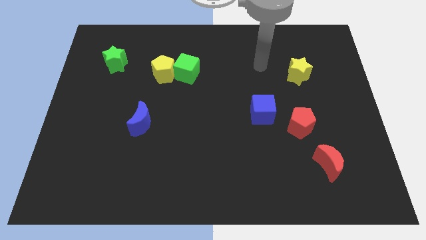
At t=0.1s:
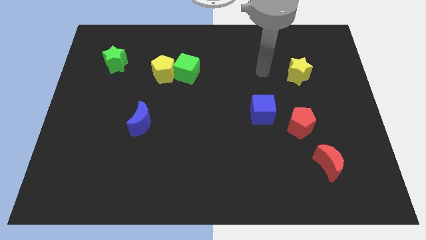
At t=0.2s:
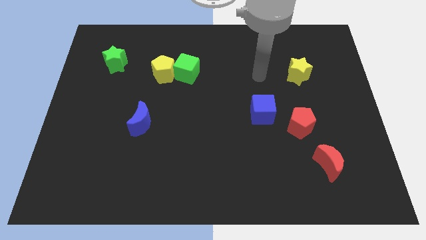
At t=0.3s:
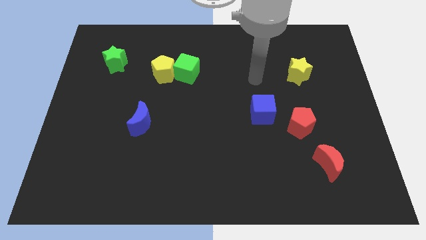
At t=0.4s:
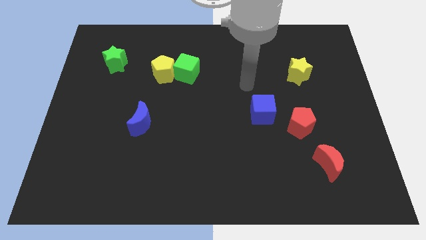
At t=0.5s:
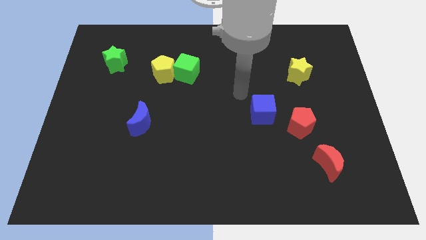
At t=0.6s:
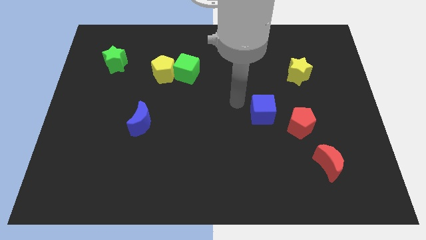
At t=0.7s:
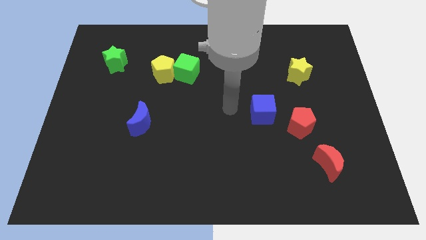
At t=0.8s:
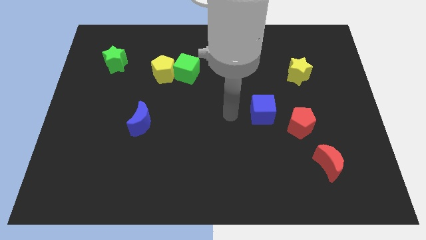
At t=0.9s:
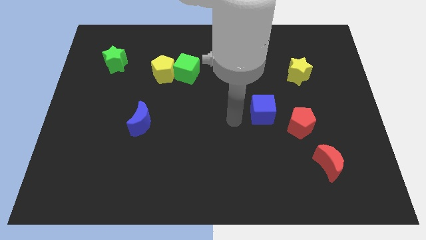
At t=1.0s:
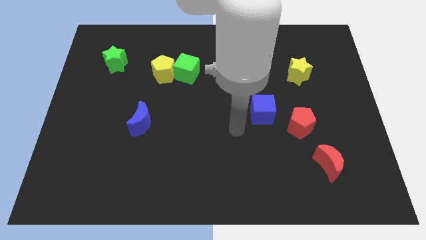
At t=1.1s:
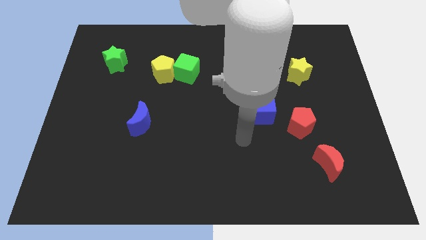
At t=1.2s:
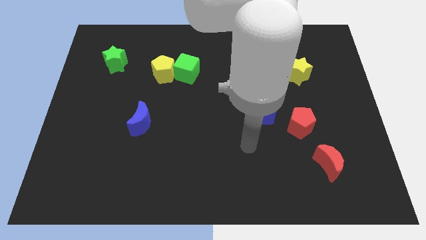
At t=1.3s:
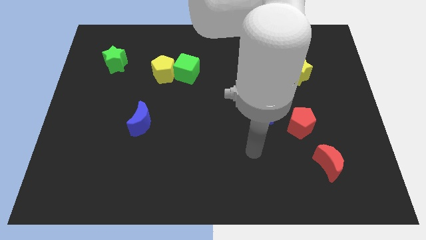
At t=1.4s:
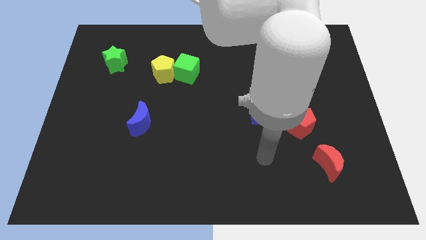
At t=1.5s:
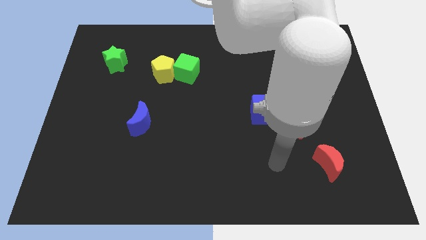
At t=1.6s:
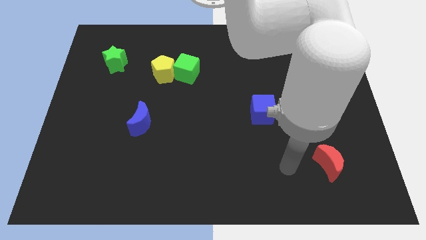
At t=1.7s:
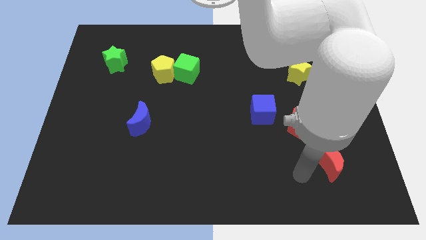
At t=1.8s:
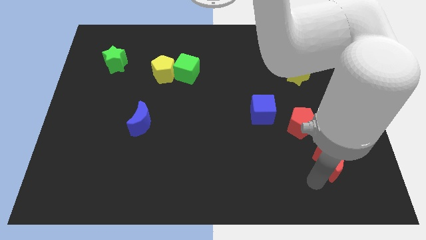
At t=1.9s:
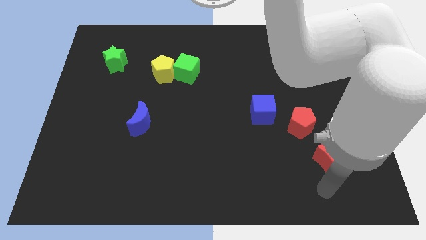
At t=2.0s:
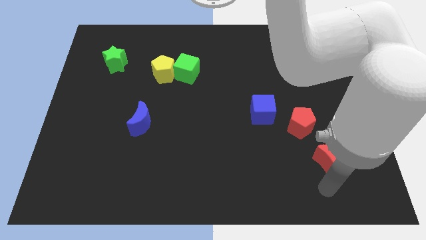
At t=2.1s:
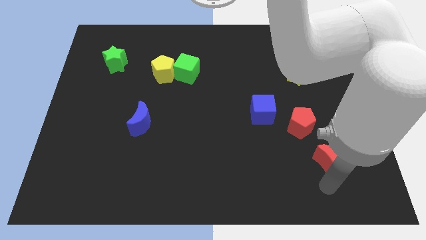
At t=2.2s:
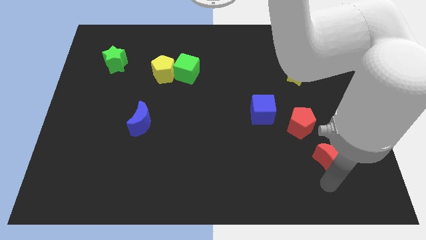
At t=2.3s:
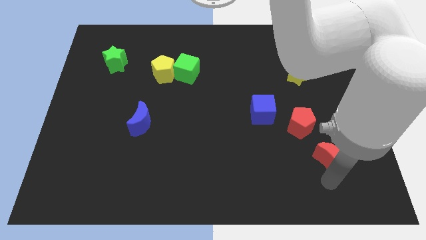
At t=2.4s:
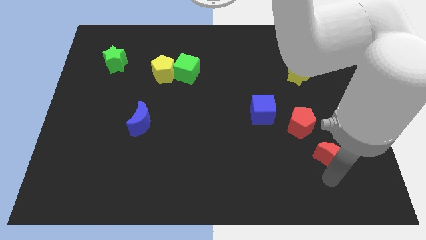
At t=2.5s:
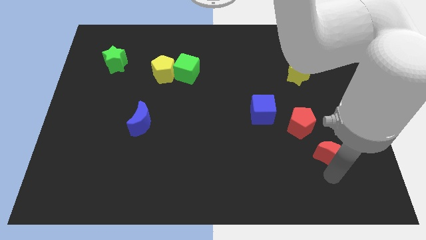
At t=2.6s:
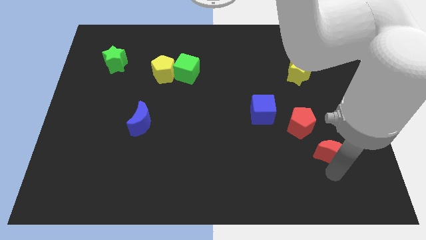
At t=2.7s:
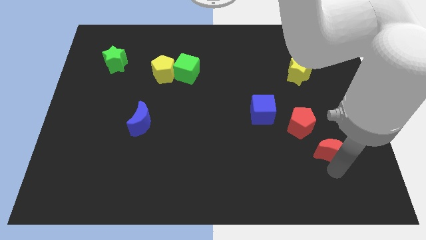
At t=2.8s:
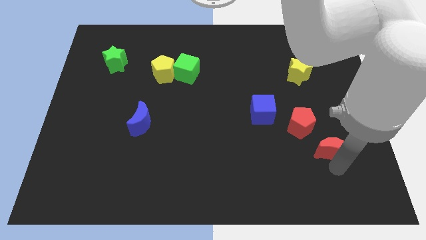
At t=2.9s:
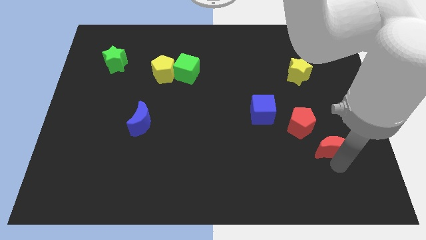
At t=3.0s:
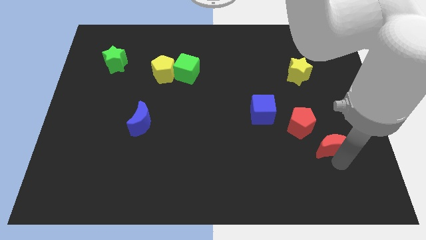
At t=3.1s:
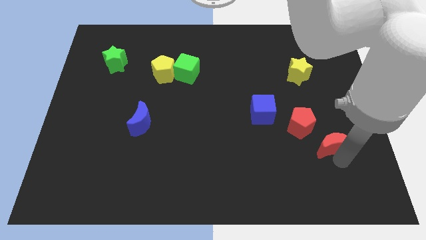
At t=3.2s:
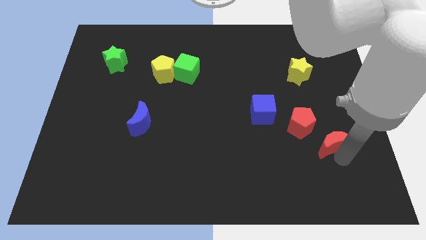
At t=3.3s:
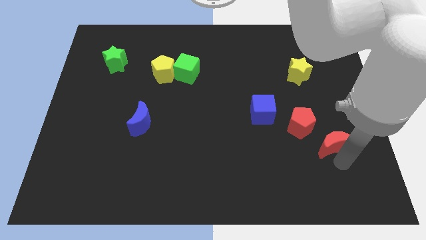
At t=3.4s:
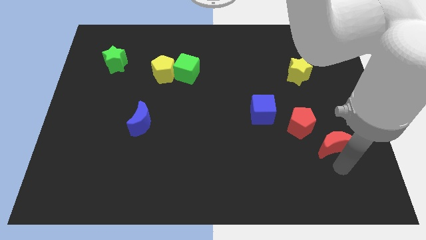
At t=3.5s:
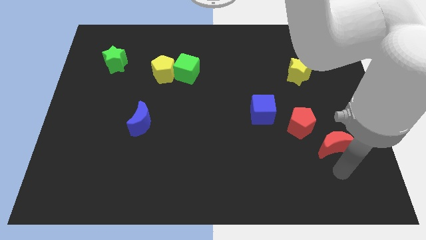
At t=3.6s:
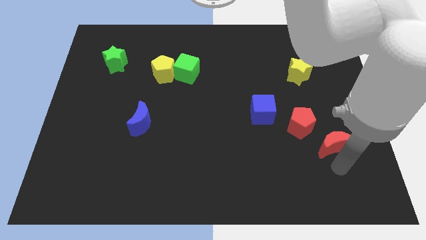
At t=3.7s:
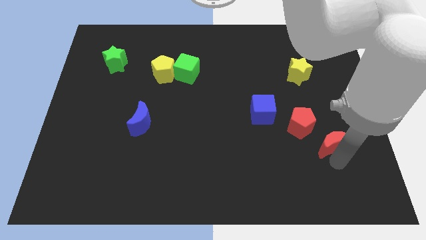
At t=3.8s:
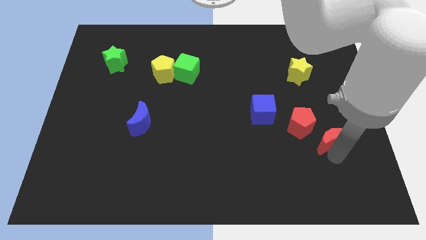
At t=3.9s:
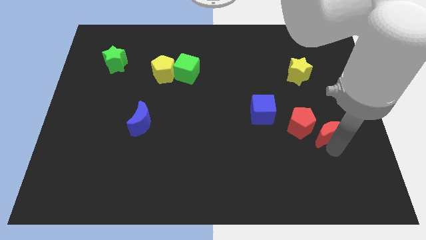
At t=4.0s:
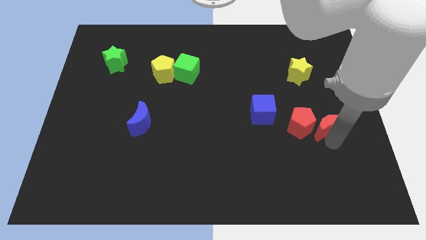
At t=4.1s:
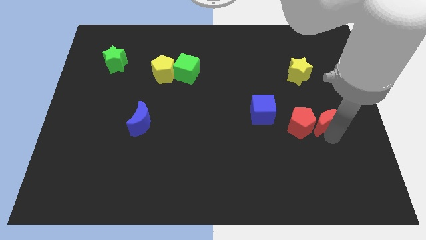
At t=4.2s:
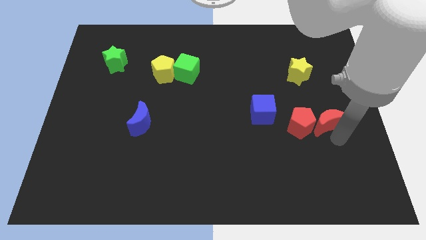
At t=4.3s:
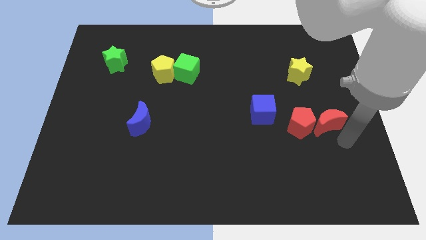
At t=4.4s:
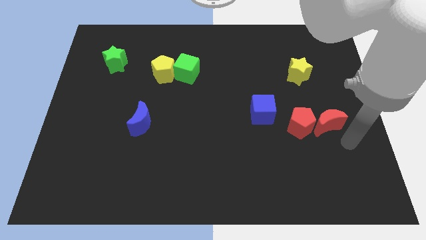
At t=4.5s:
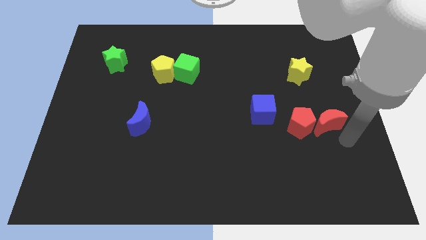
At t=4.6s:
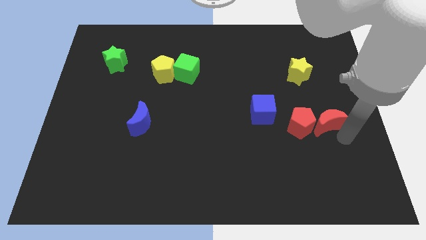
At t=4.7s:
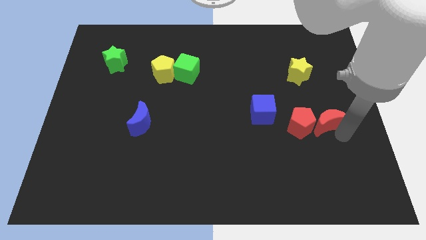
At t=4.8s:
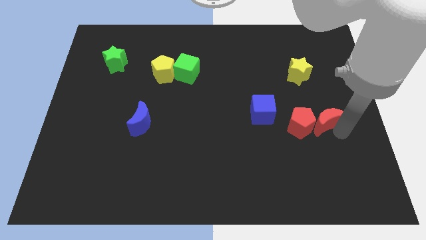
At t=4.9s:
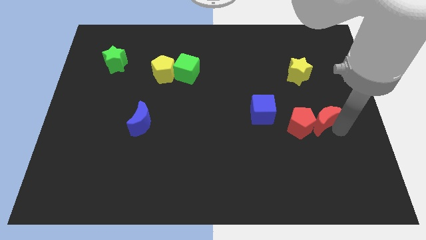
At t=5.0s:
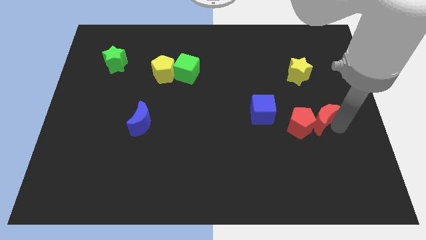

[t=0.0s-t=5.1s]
push the red moon to the bottom of the yellow star

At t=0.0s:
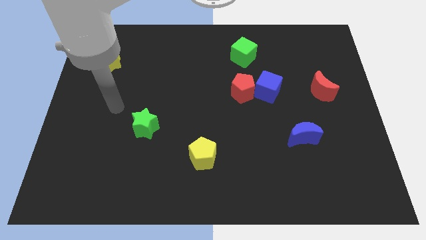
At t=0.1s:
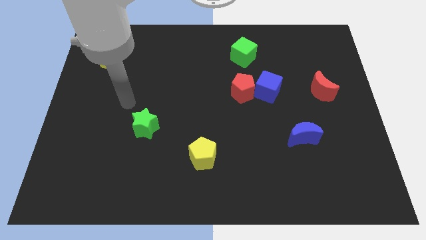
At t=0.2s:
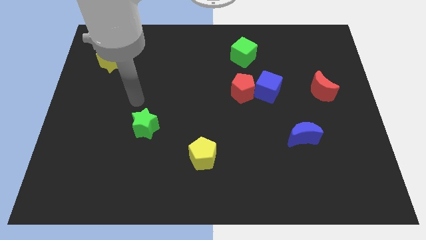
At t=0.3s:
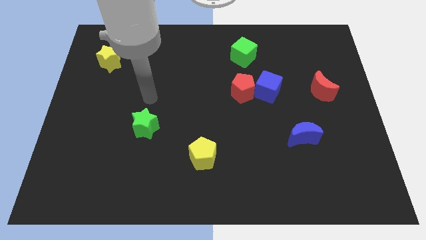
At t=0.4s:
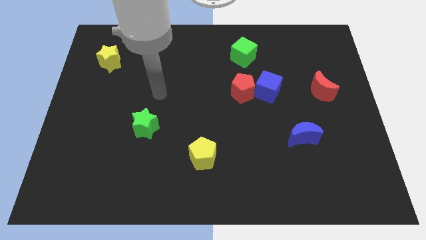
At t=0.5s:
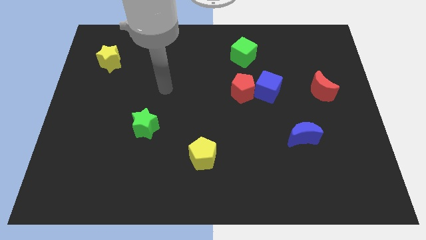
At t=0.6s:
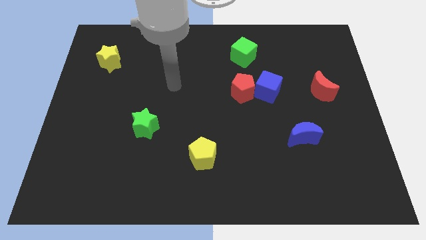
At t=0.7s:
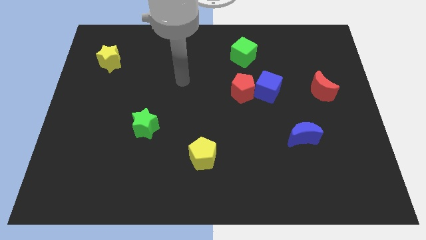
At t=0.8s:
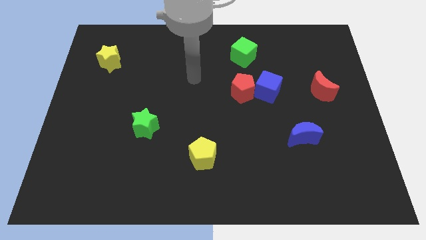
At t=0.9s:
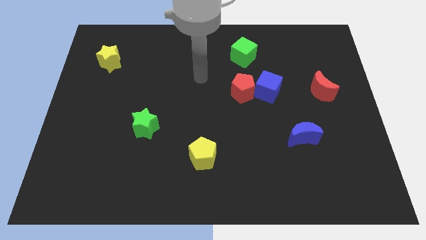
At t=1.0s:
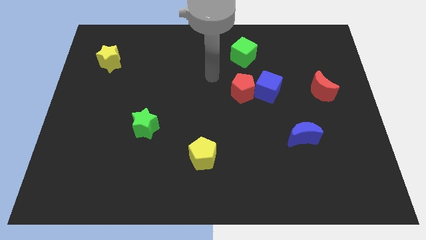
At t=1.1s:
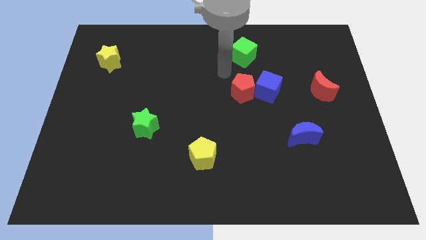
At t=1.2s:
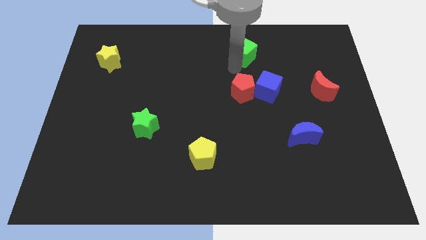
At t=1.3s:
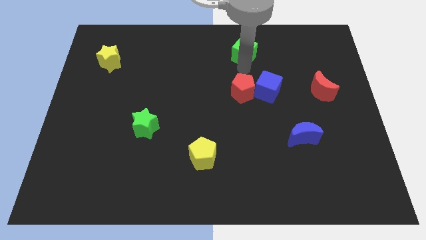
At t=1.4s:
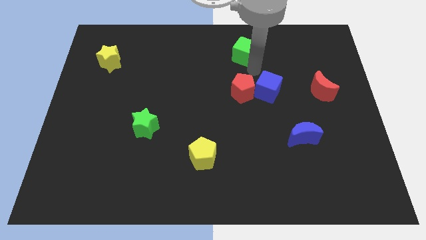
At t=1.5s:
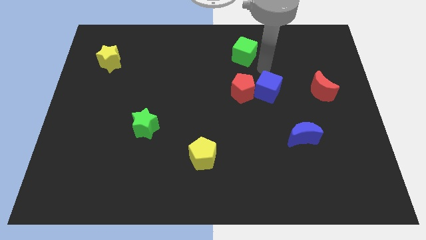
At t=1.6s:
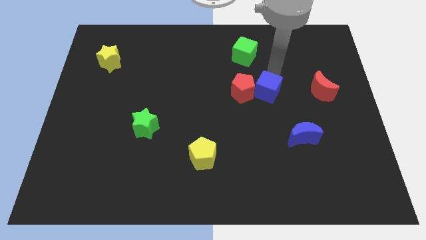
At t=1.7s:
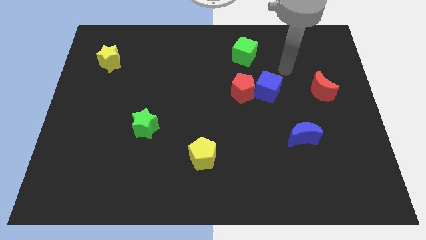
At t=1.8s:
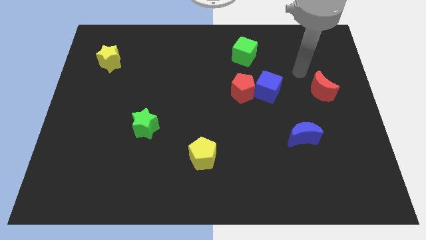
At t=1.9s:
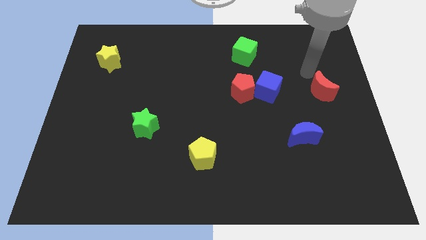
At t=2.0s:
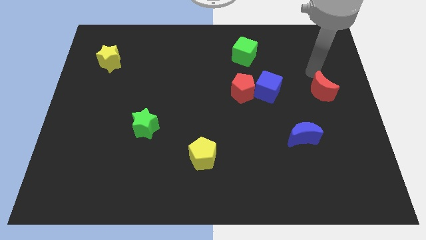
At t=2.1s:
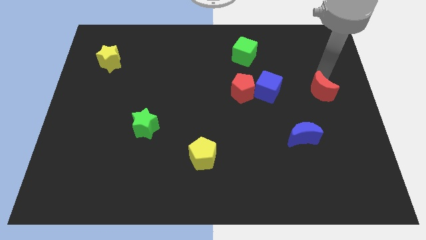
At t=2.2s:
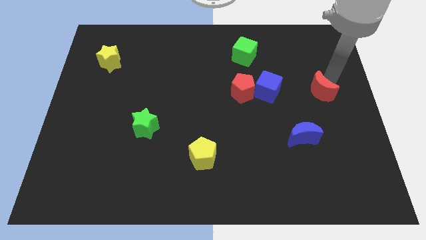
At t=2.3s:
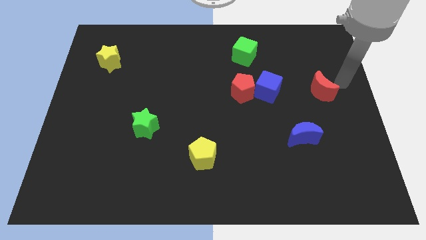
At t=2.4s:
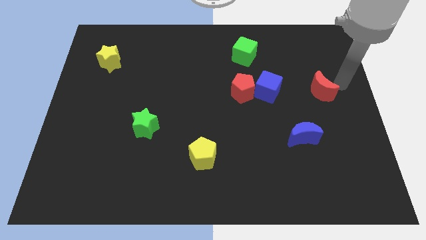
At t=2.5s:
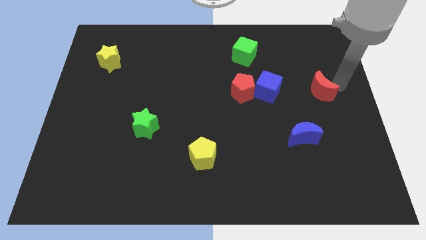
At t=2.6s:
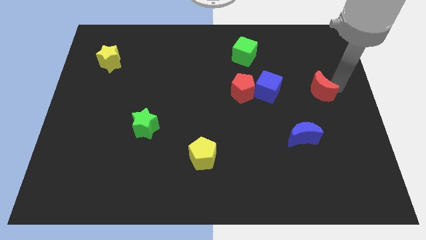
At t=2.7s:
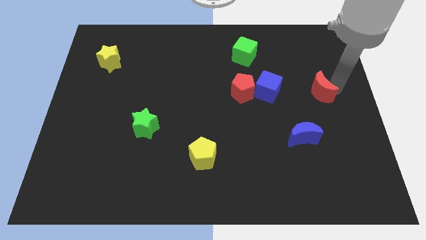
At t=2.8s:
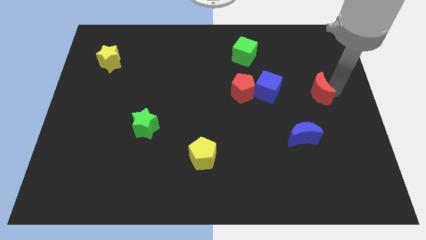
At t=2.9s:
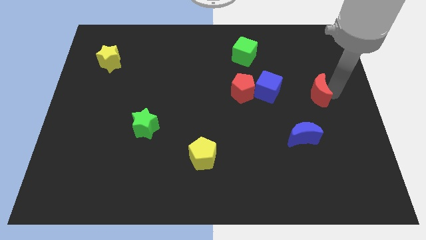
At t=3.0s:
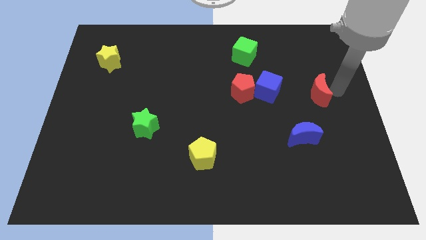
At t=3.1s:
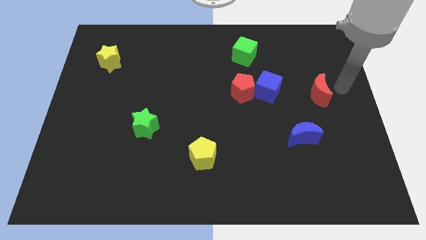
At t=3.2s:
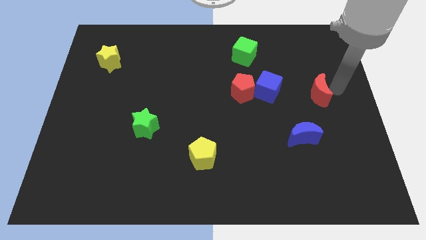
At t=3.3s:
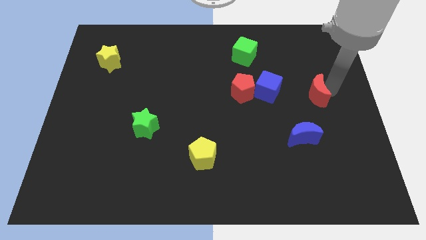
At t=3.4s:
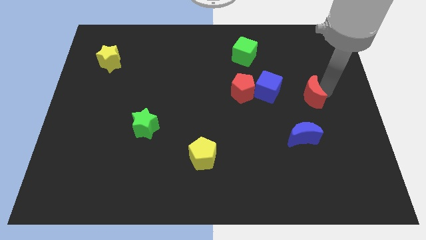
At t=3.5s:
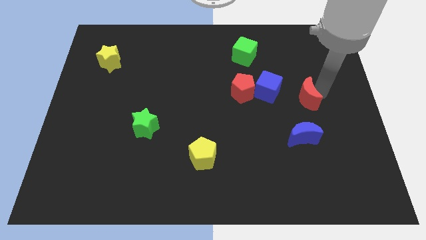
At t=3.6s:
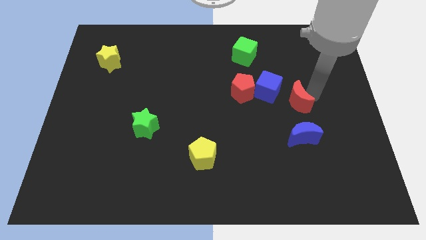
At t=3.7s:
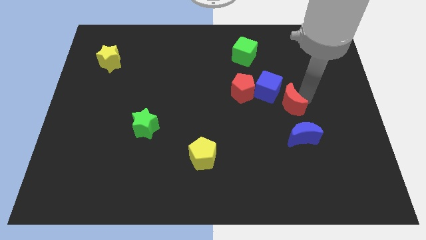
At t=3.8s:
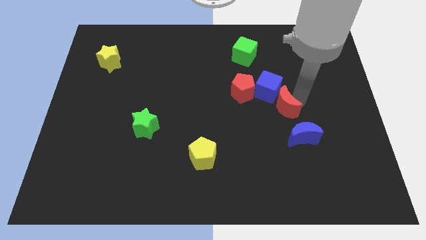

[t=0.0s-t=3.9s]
move the red moon to the bottom right of the red pentagon
